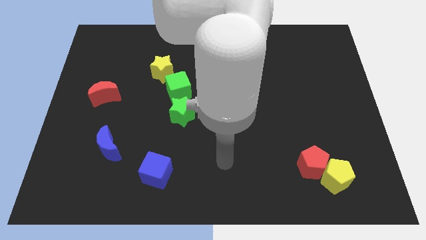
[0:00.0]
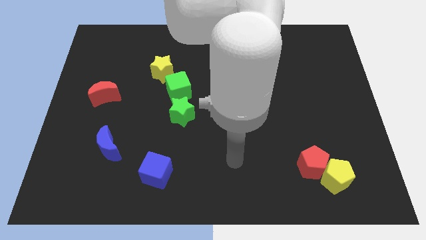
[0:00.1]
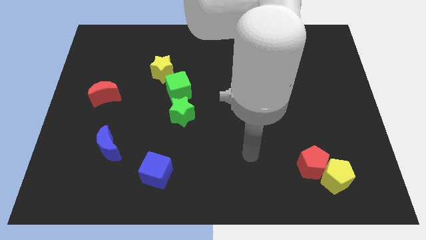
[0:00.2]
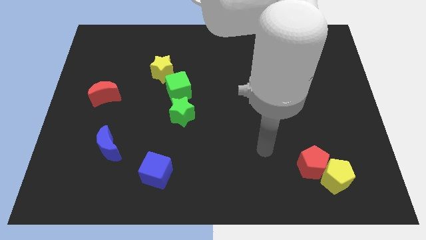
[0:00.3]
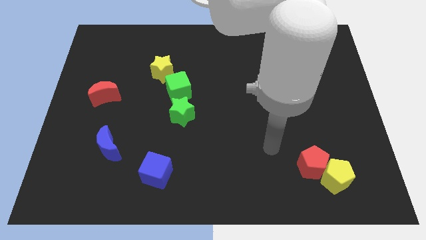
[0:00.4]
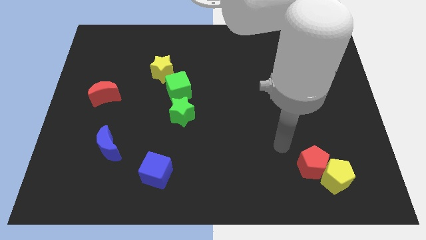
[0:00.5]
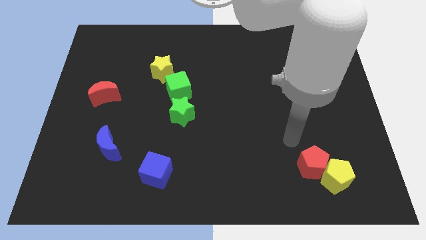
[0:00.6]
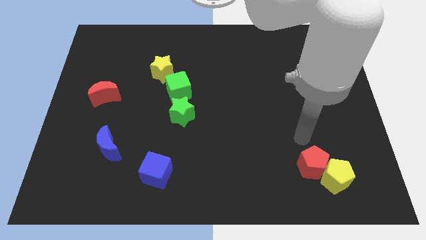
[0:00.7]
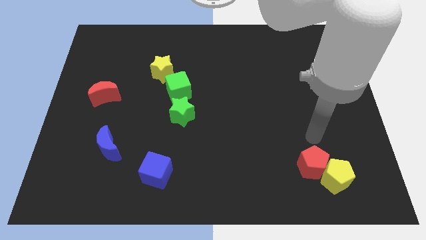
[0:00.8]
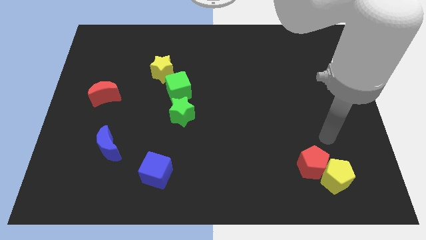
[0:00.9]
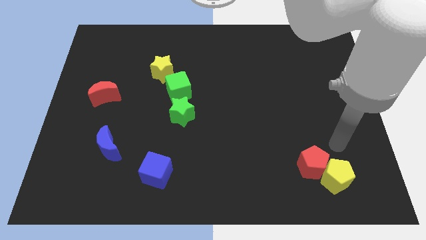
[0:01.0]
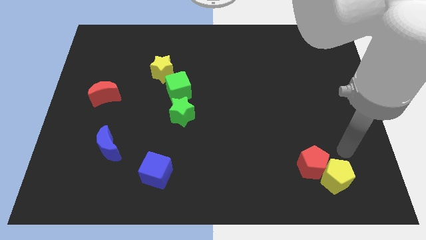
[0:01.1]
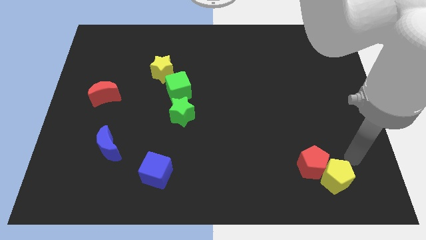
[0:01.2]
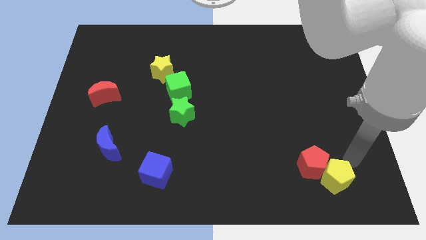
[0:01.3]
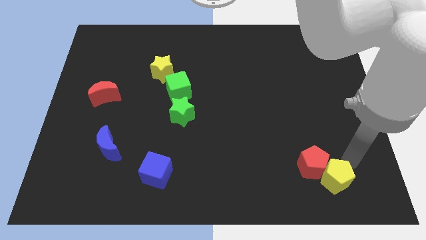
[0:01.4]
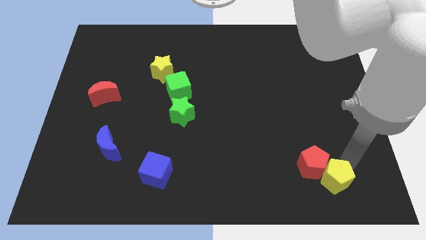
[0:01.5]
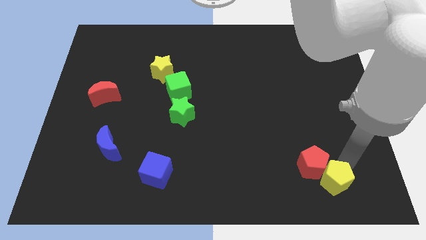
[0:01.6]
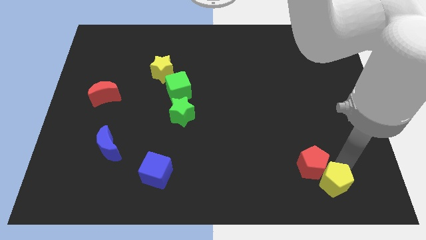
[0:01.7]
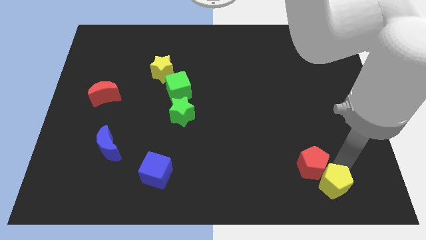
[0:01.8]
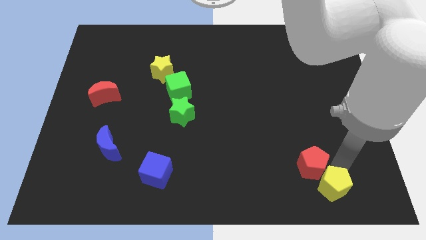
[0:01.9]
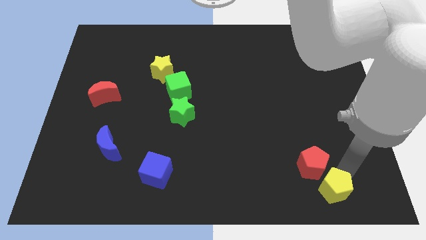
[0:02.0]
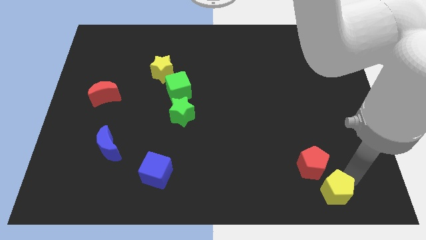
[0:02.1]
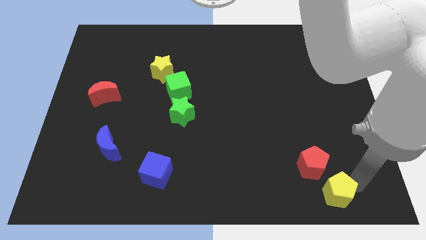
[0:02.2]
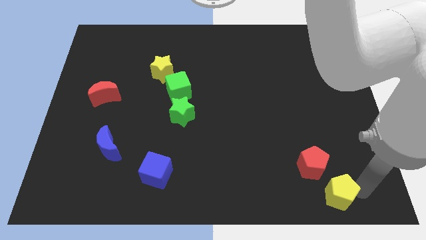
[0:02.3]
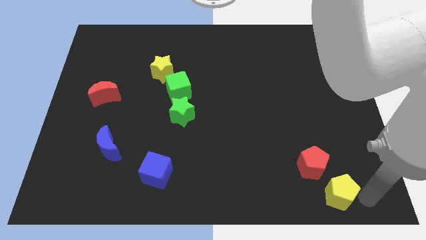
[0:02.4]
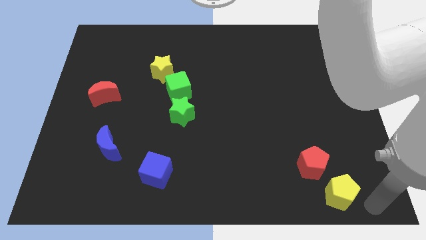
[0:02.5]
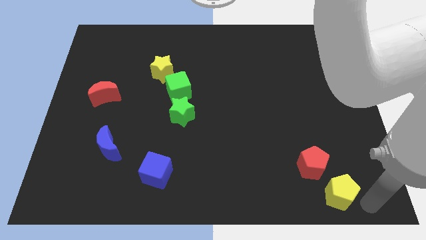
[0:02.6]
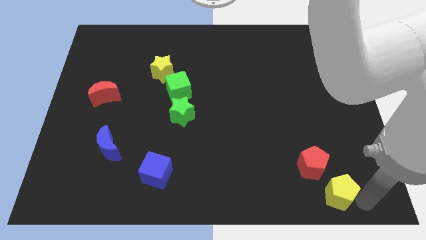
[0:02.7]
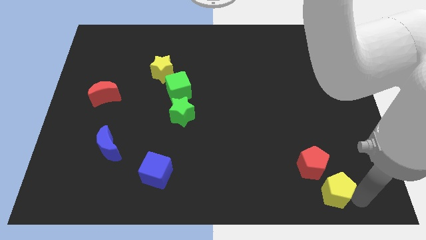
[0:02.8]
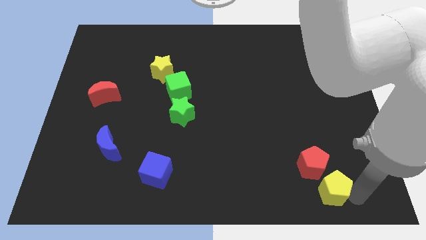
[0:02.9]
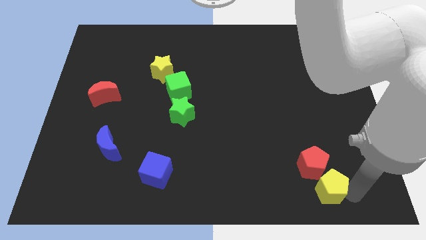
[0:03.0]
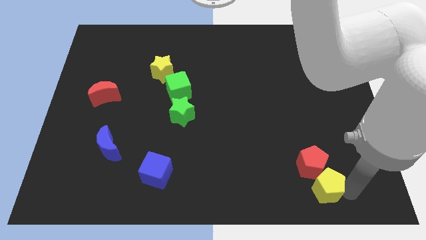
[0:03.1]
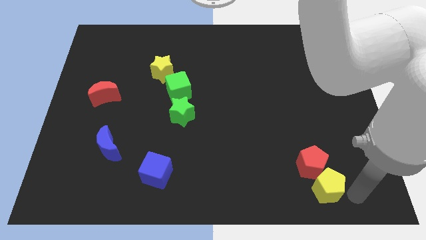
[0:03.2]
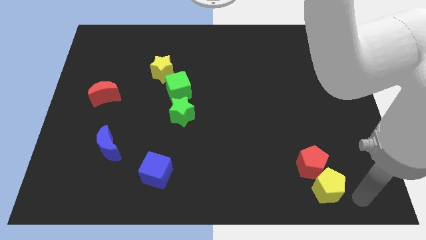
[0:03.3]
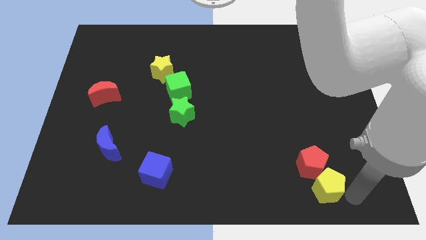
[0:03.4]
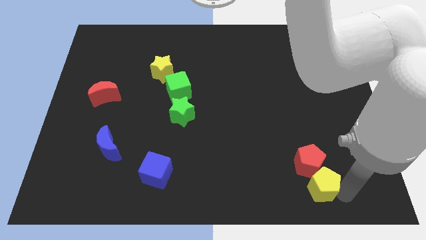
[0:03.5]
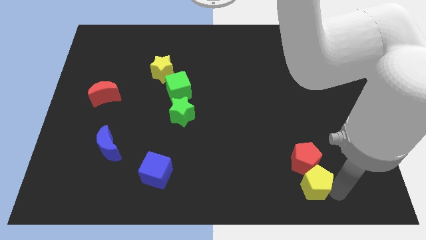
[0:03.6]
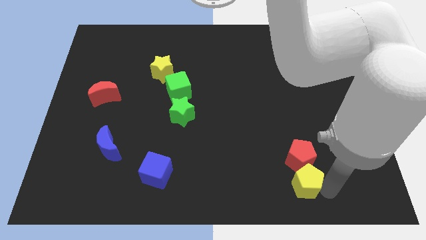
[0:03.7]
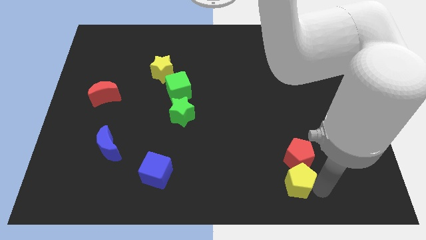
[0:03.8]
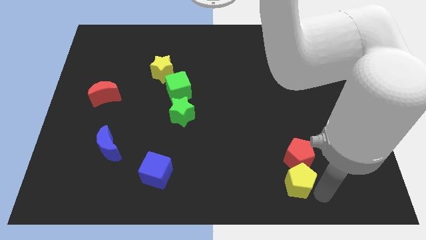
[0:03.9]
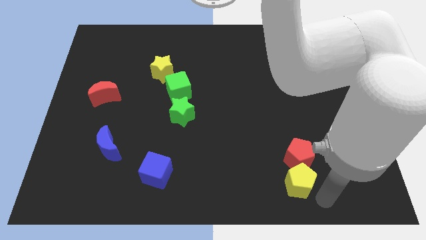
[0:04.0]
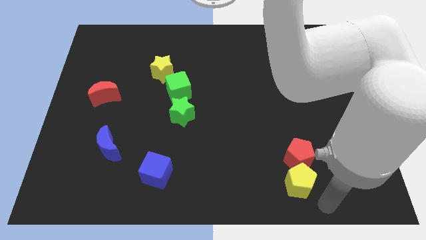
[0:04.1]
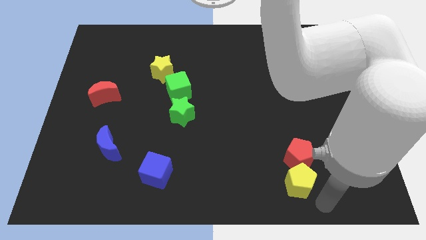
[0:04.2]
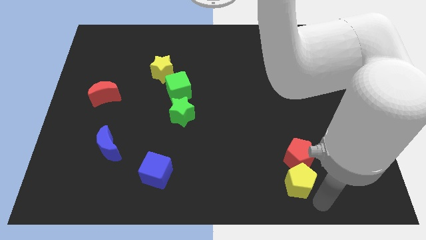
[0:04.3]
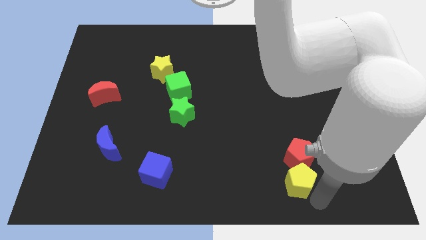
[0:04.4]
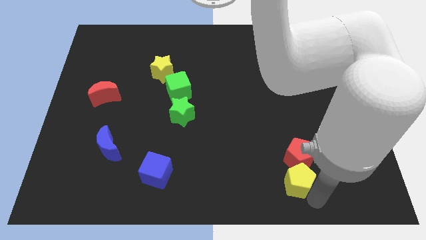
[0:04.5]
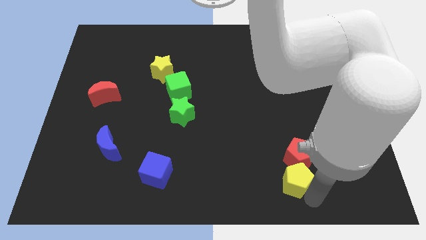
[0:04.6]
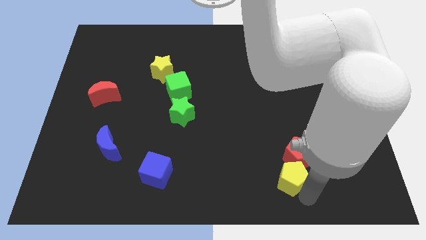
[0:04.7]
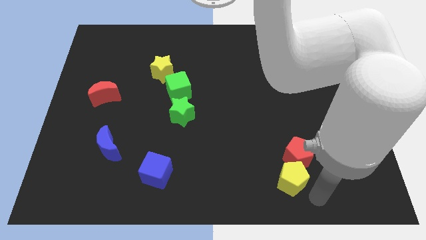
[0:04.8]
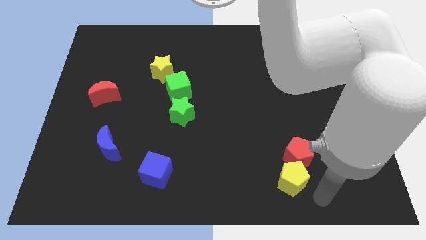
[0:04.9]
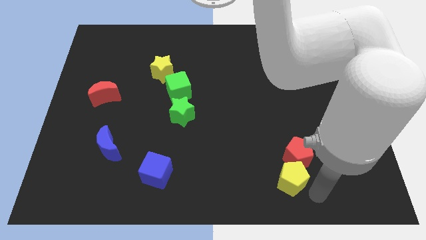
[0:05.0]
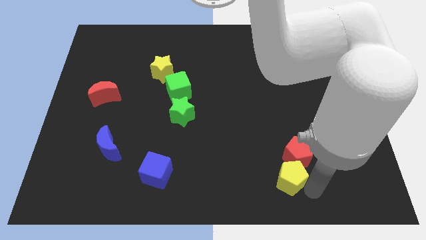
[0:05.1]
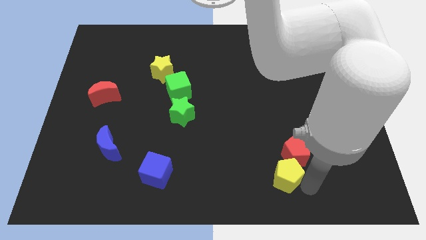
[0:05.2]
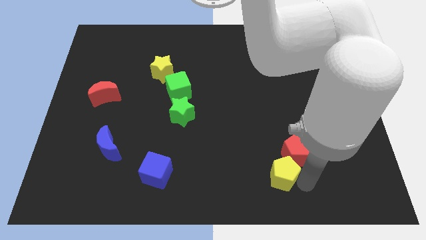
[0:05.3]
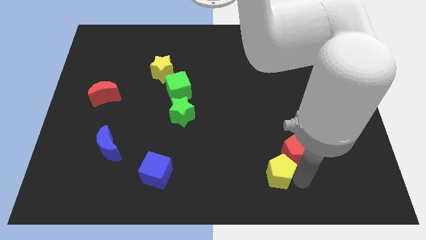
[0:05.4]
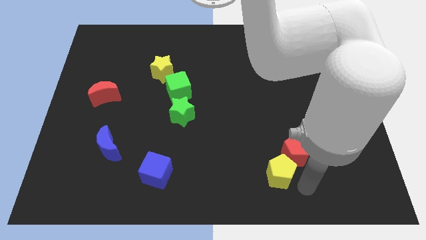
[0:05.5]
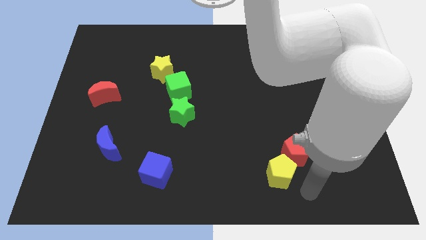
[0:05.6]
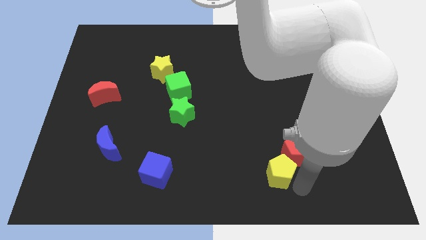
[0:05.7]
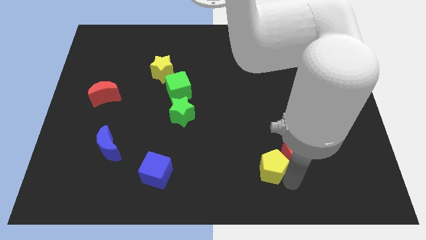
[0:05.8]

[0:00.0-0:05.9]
push the yellow pentagon just left of the red pentagon
